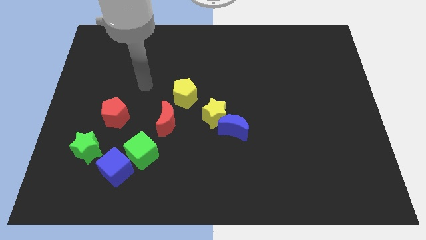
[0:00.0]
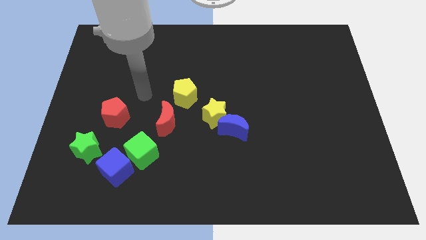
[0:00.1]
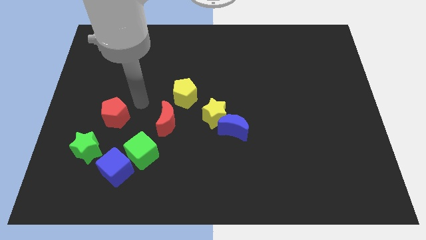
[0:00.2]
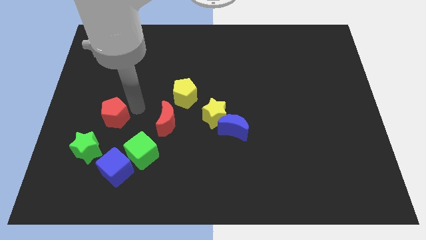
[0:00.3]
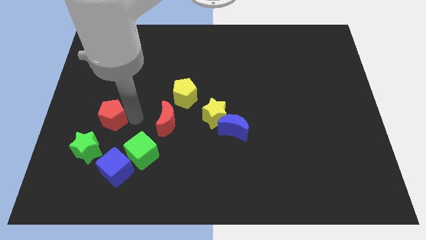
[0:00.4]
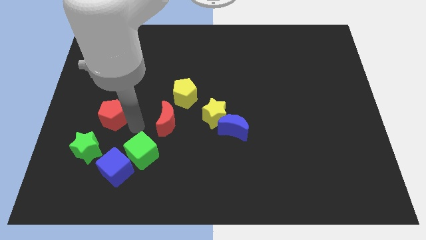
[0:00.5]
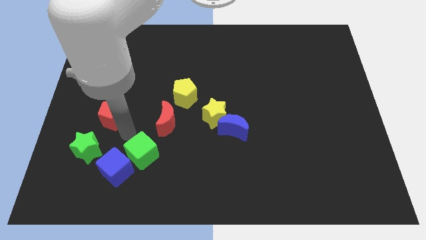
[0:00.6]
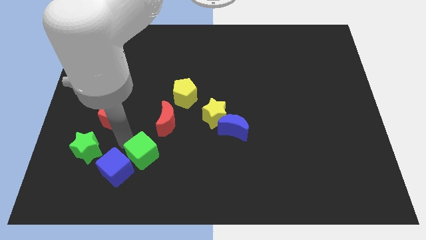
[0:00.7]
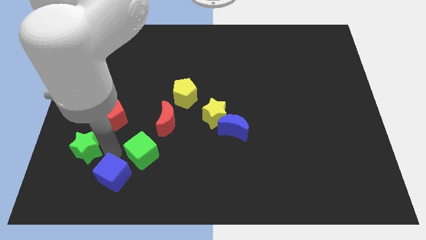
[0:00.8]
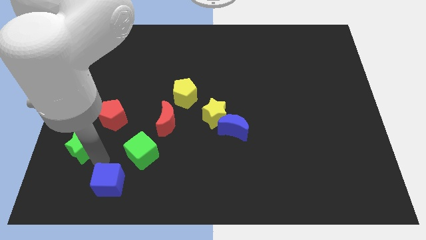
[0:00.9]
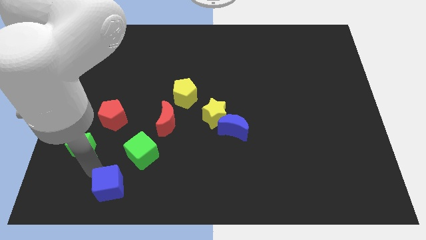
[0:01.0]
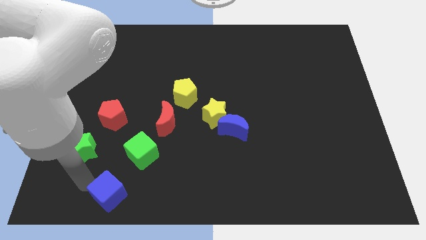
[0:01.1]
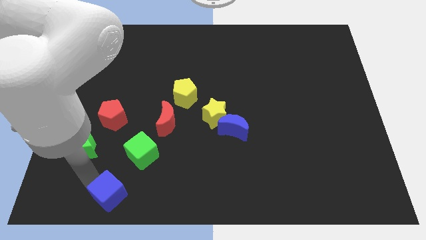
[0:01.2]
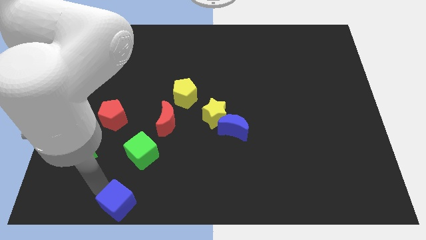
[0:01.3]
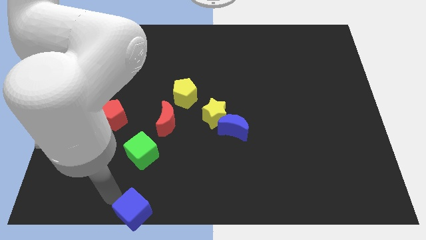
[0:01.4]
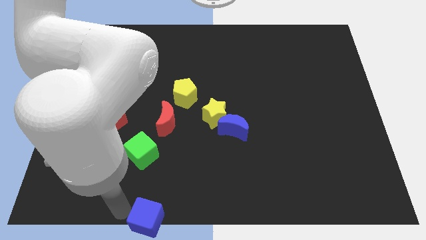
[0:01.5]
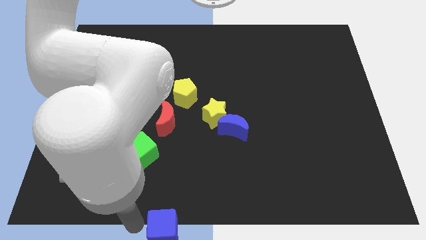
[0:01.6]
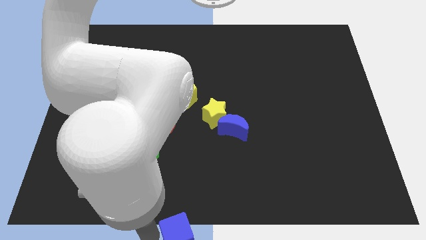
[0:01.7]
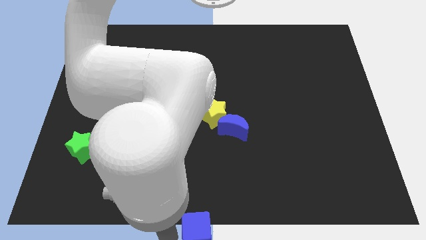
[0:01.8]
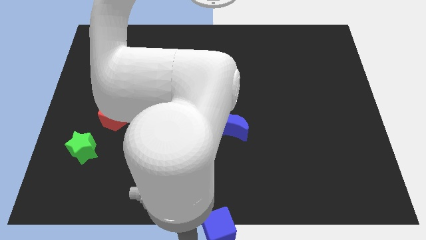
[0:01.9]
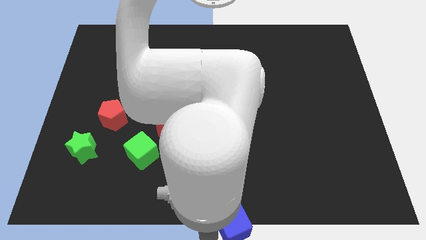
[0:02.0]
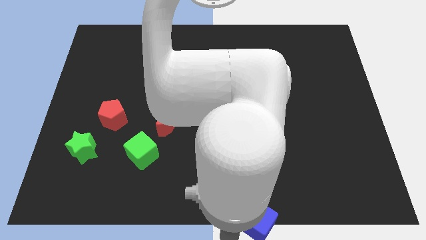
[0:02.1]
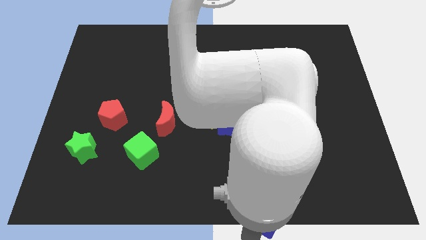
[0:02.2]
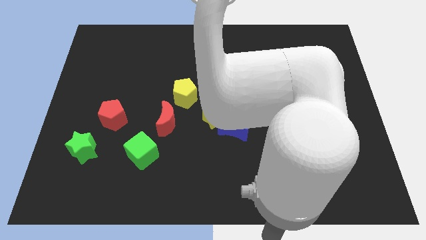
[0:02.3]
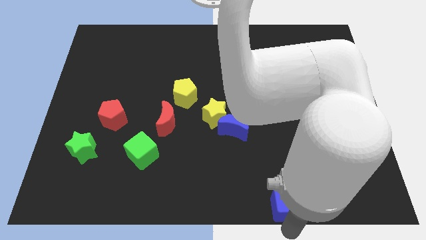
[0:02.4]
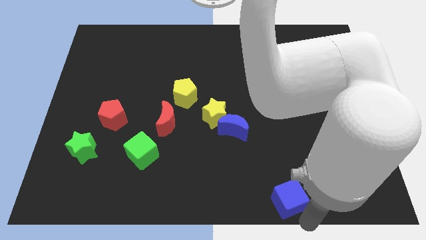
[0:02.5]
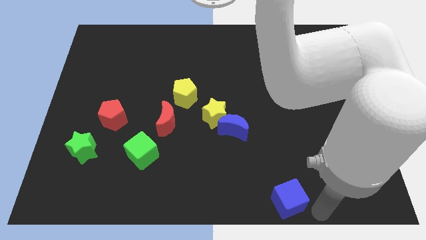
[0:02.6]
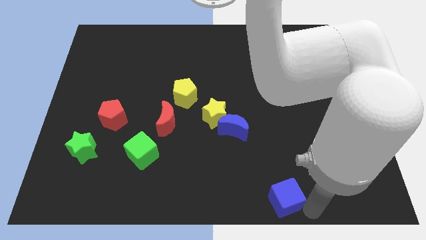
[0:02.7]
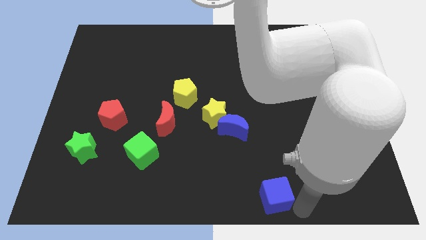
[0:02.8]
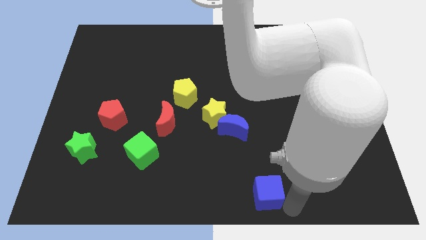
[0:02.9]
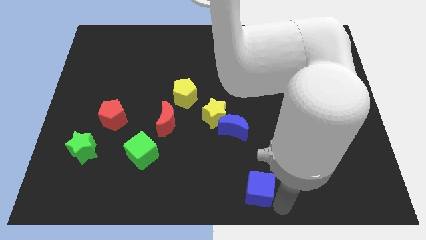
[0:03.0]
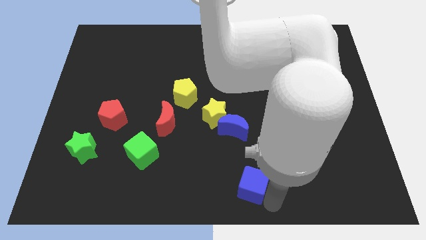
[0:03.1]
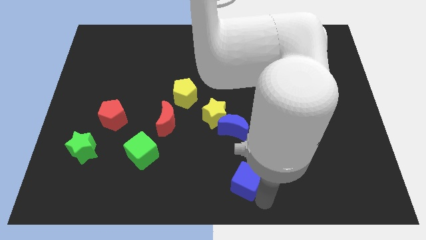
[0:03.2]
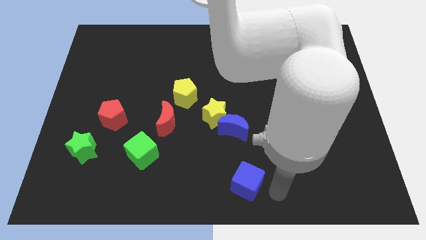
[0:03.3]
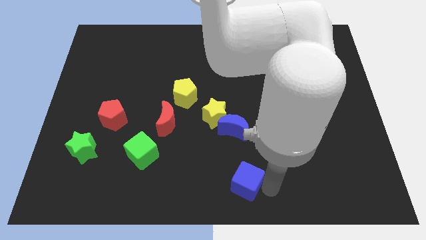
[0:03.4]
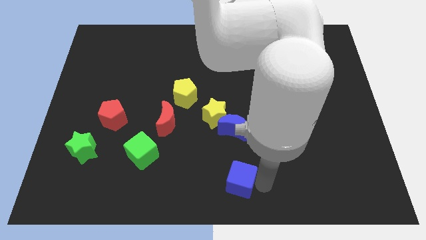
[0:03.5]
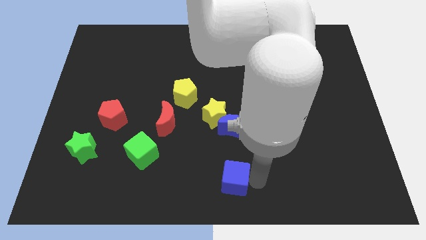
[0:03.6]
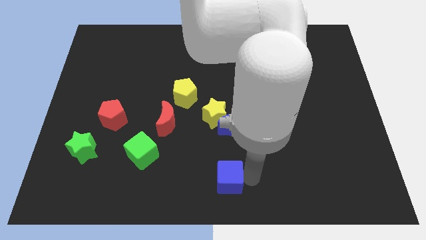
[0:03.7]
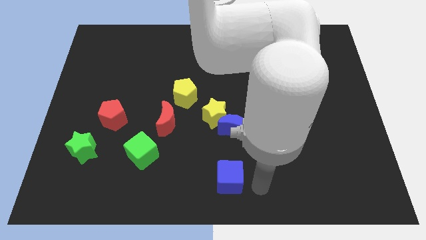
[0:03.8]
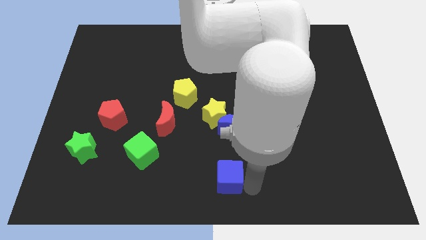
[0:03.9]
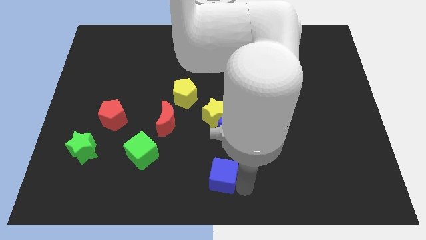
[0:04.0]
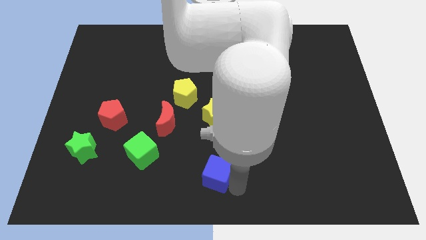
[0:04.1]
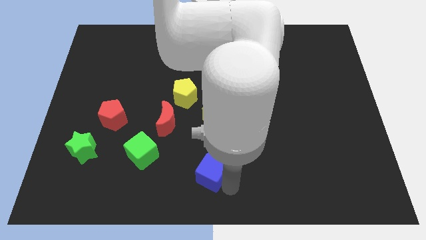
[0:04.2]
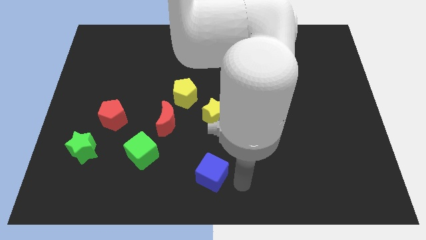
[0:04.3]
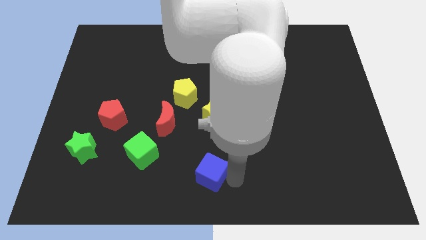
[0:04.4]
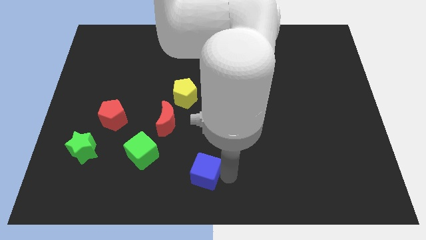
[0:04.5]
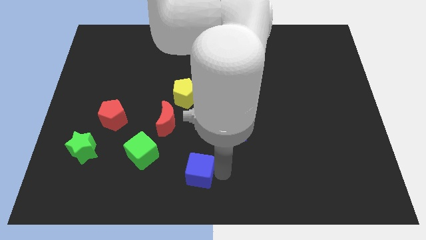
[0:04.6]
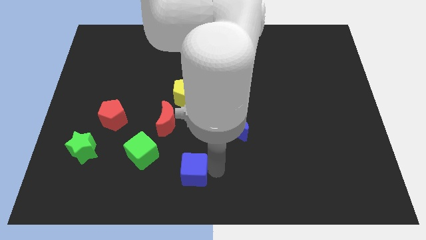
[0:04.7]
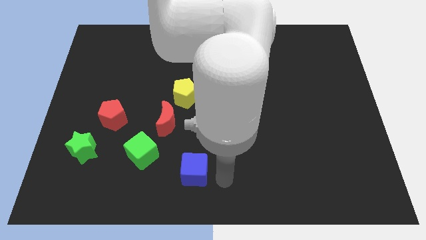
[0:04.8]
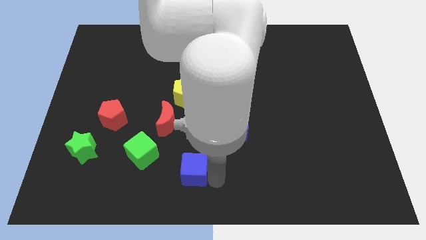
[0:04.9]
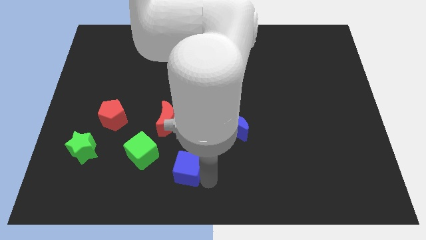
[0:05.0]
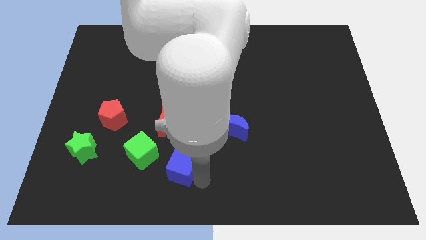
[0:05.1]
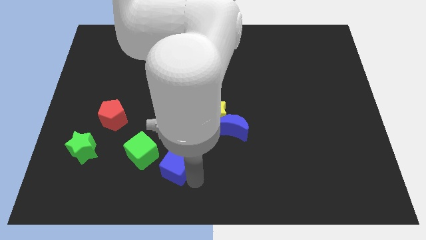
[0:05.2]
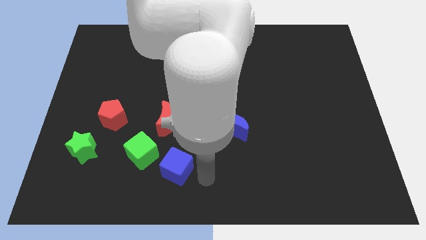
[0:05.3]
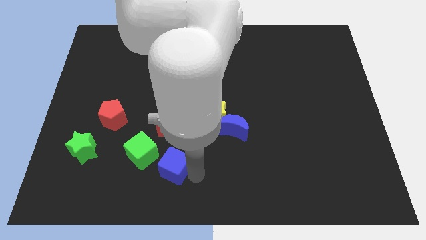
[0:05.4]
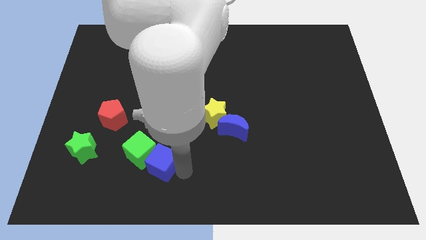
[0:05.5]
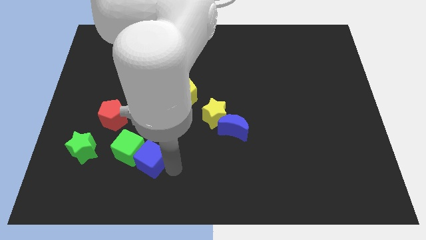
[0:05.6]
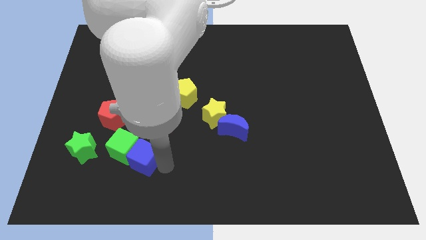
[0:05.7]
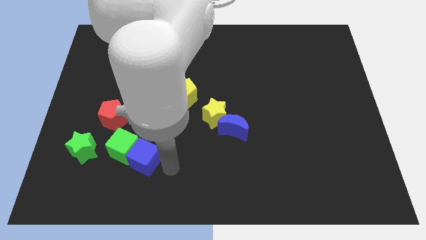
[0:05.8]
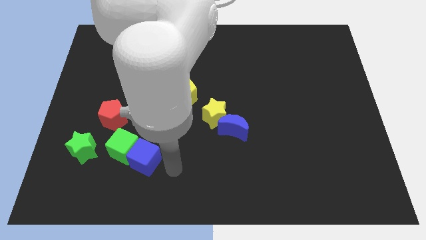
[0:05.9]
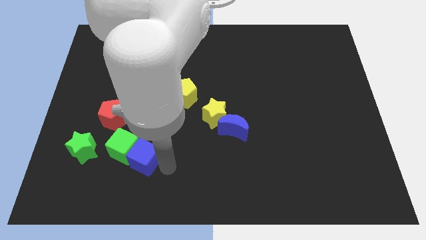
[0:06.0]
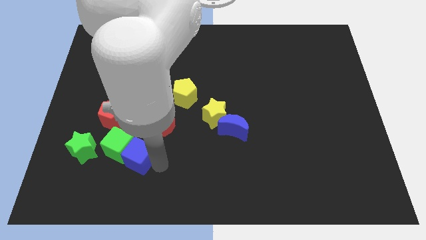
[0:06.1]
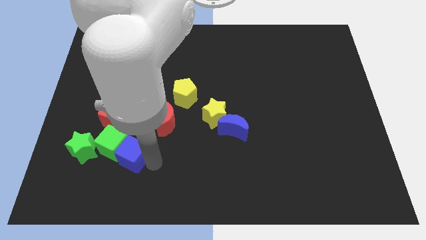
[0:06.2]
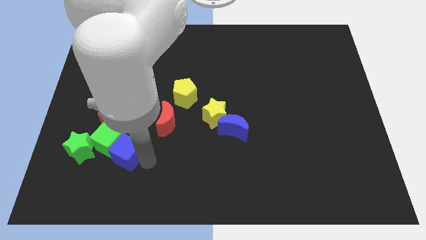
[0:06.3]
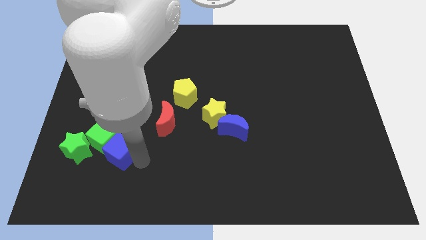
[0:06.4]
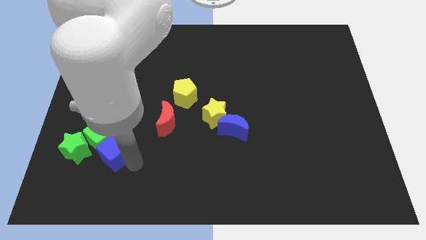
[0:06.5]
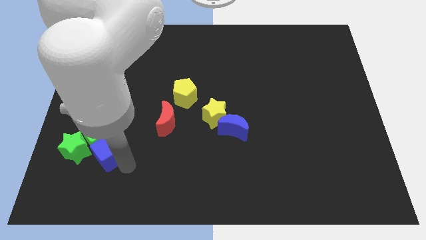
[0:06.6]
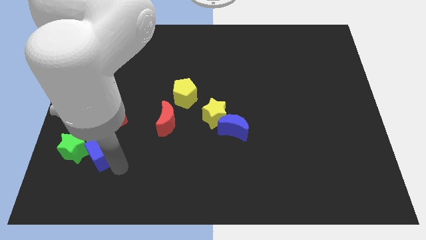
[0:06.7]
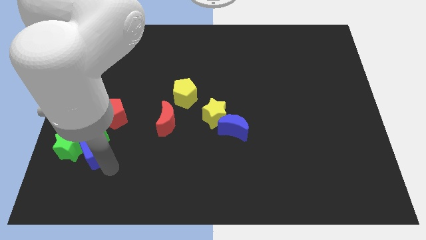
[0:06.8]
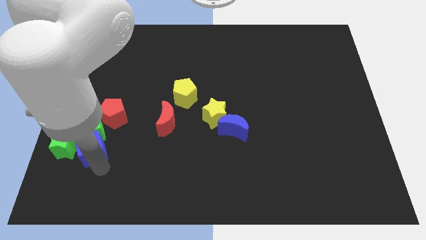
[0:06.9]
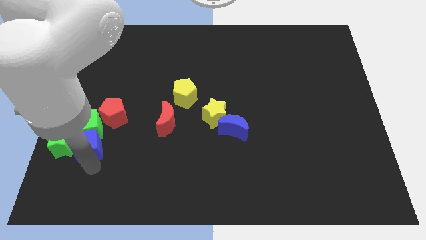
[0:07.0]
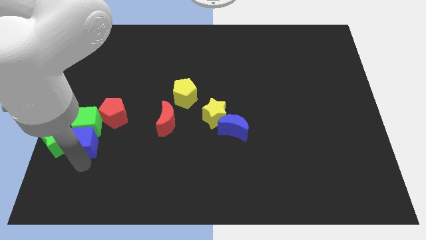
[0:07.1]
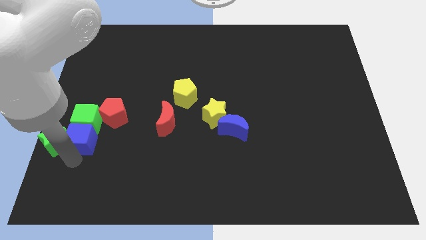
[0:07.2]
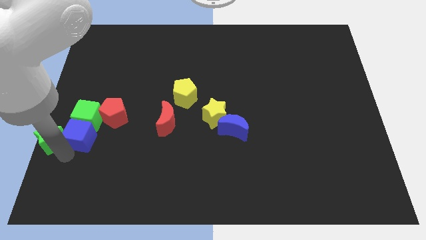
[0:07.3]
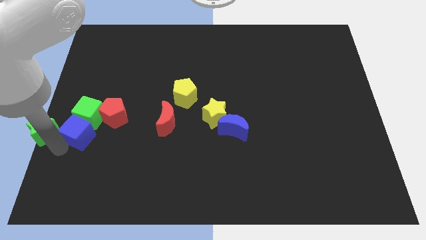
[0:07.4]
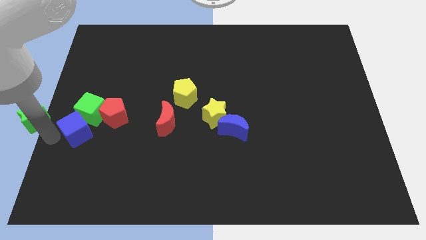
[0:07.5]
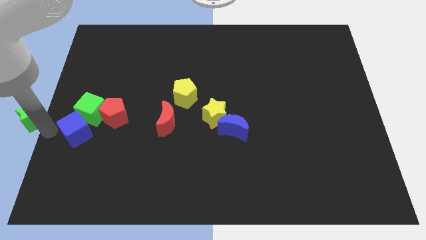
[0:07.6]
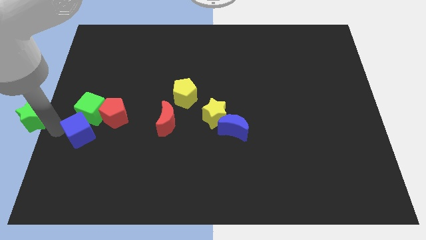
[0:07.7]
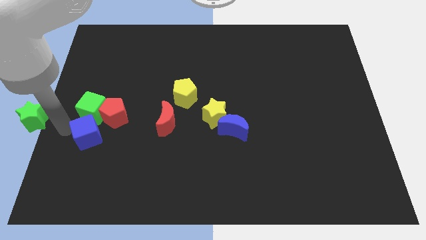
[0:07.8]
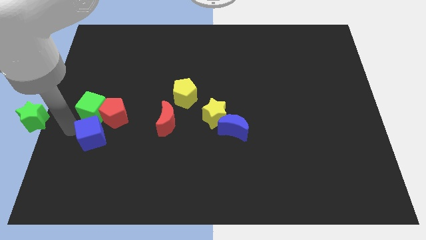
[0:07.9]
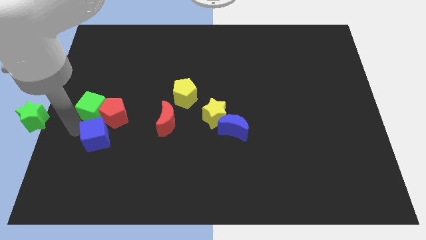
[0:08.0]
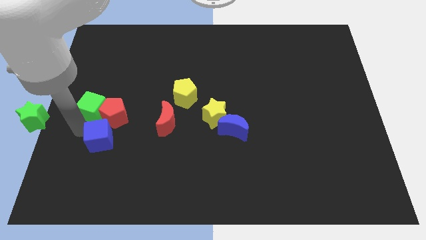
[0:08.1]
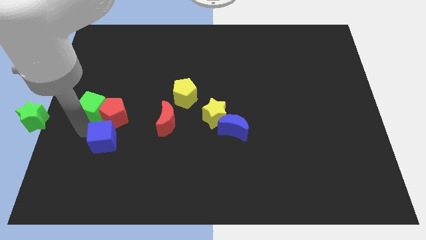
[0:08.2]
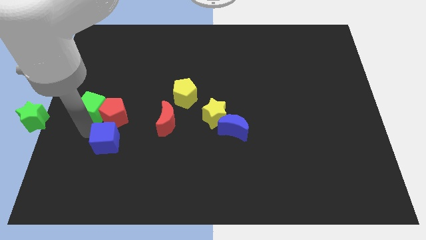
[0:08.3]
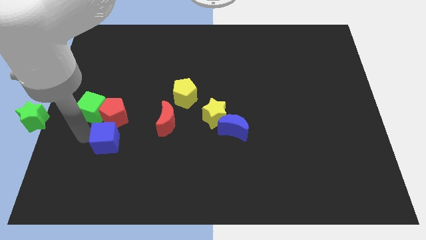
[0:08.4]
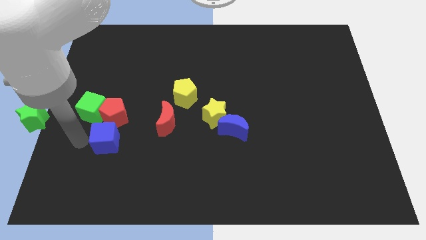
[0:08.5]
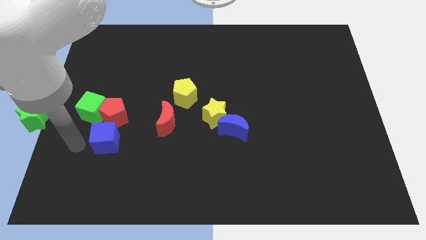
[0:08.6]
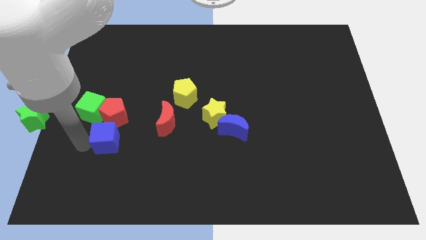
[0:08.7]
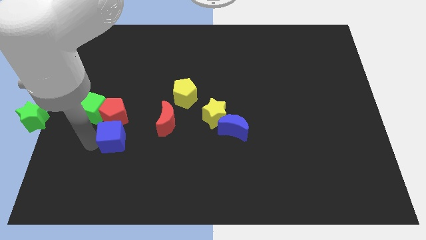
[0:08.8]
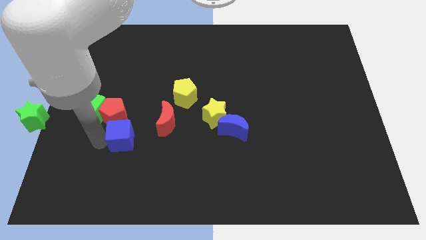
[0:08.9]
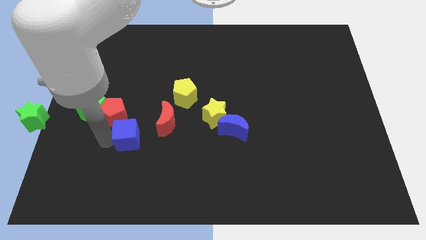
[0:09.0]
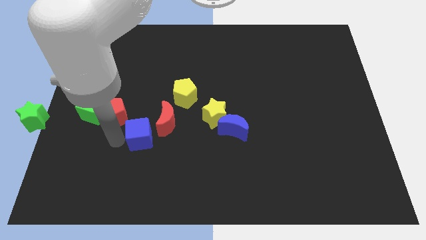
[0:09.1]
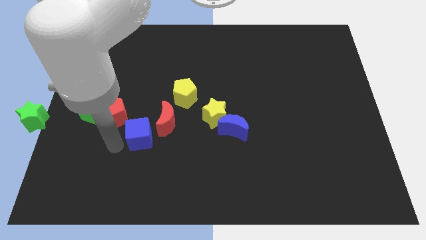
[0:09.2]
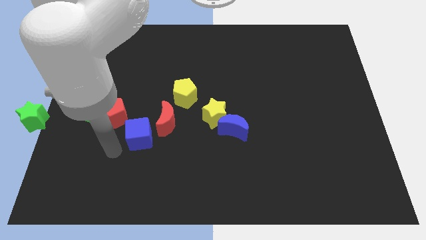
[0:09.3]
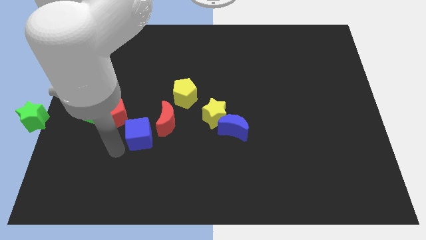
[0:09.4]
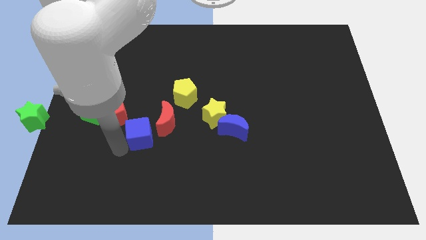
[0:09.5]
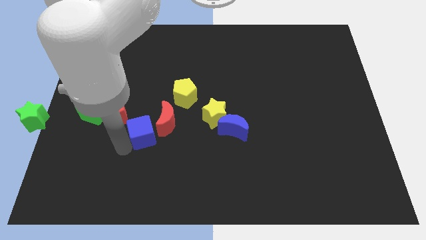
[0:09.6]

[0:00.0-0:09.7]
slide the blue cube towards the red moon
